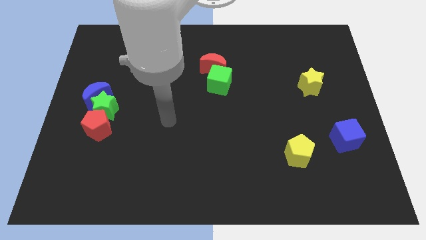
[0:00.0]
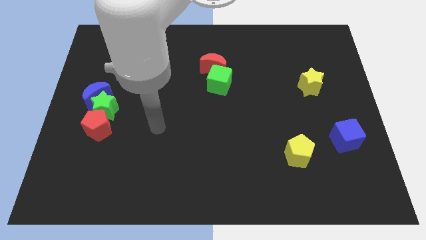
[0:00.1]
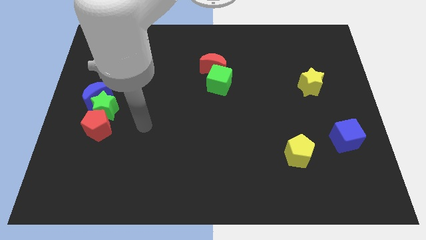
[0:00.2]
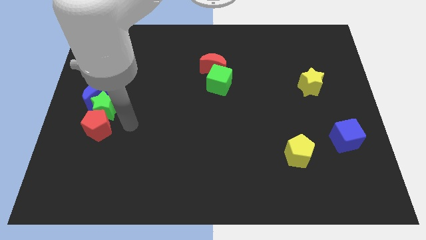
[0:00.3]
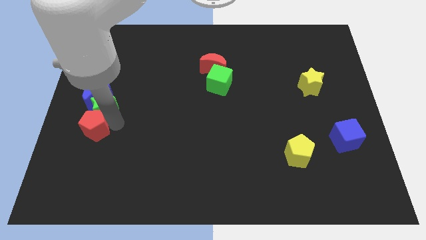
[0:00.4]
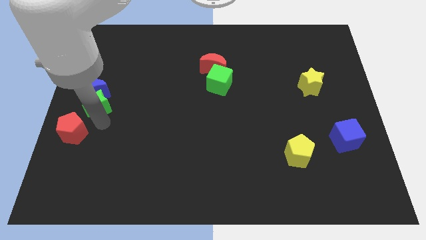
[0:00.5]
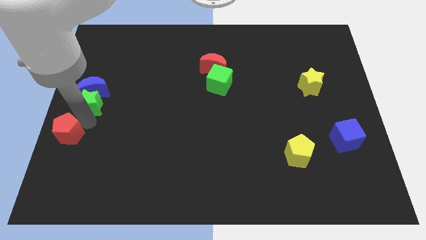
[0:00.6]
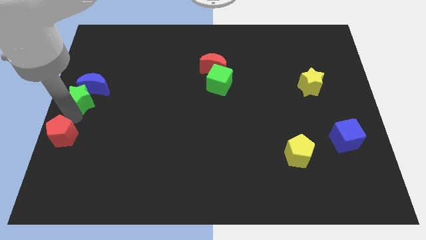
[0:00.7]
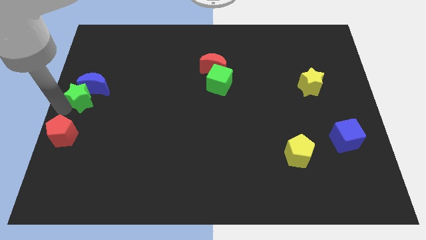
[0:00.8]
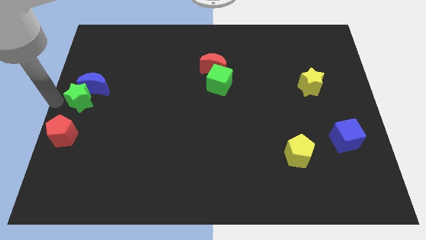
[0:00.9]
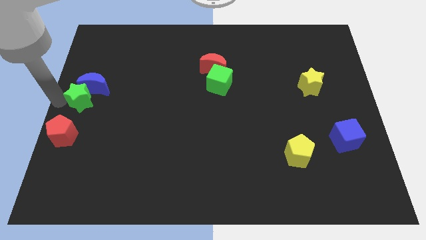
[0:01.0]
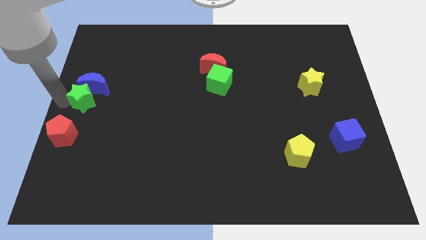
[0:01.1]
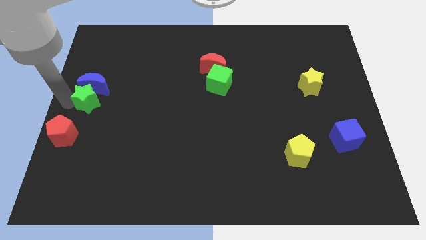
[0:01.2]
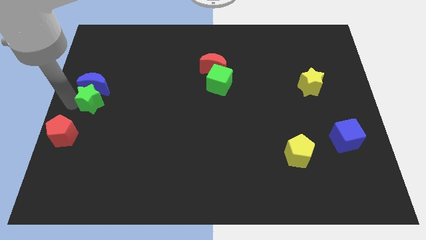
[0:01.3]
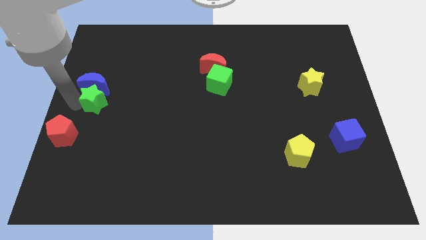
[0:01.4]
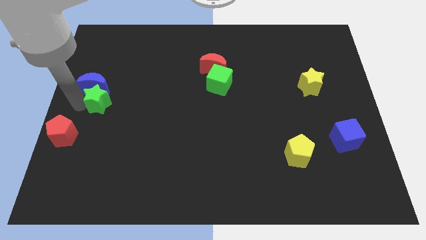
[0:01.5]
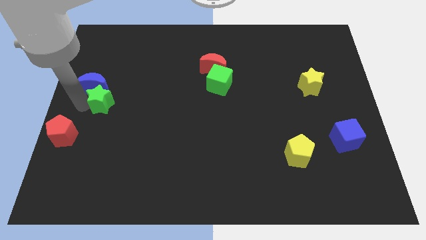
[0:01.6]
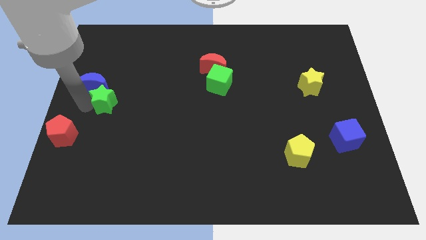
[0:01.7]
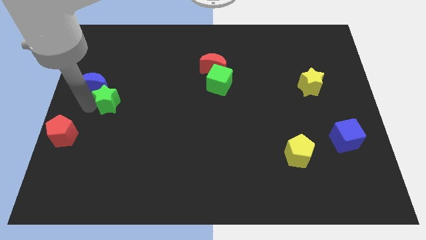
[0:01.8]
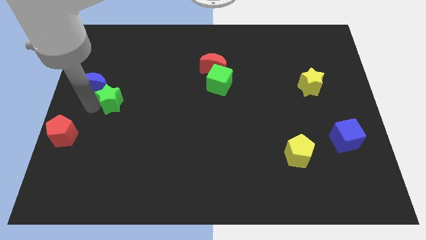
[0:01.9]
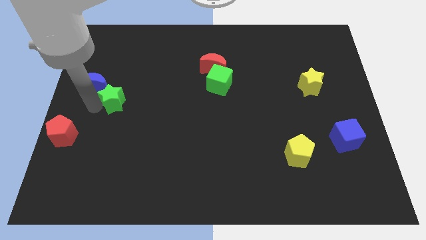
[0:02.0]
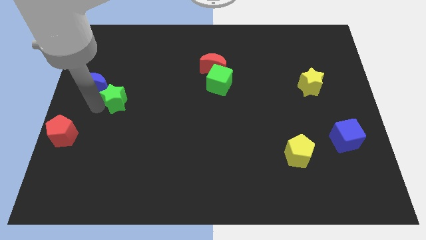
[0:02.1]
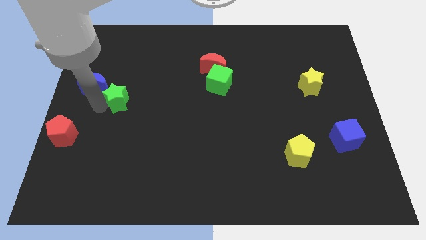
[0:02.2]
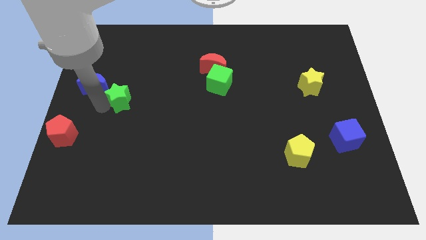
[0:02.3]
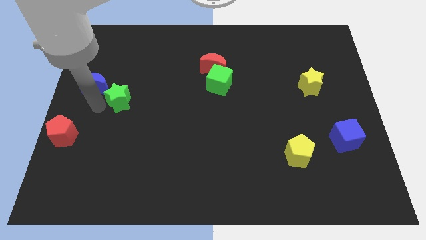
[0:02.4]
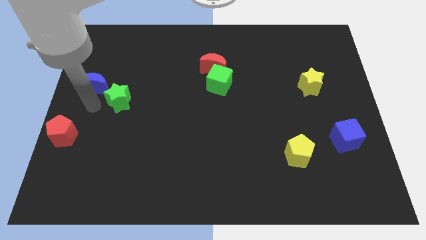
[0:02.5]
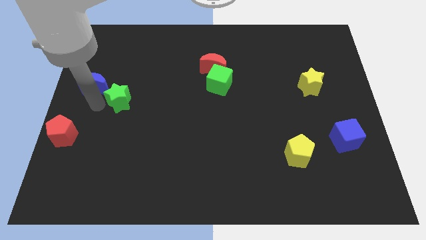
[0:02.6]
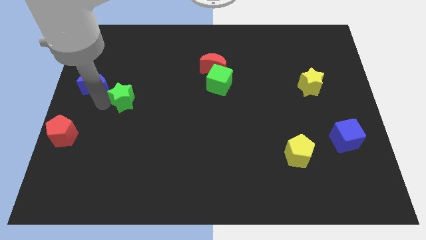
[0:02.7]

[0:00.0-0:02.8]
separate the green star from the blue moon and red pentagon

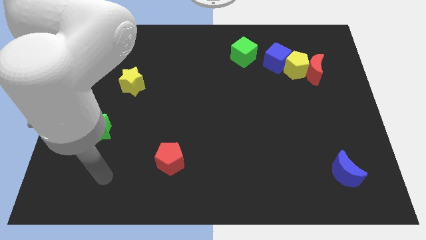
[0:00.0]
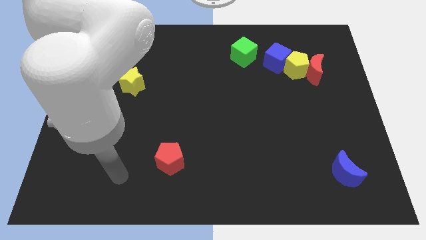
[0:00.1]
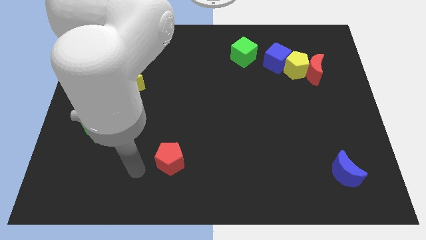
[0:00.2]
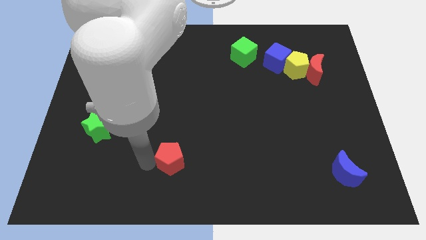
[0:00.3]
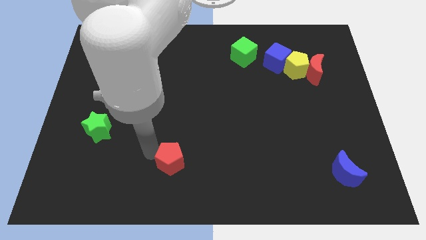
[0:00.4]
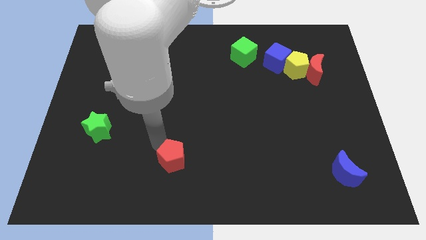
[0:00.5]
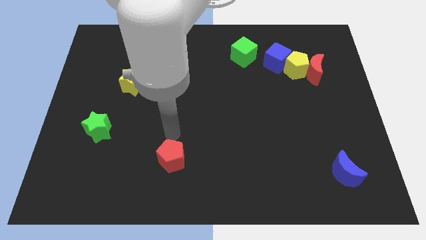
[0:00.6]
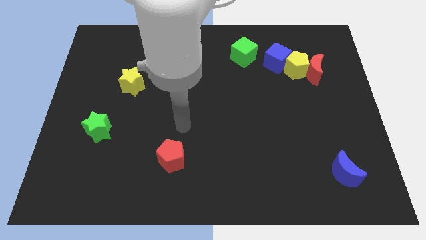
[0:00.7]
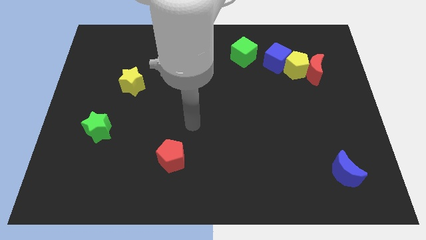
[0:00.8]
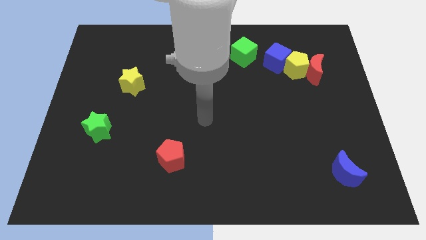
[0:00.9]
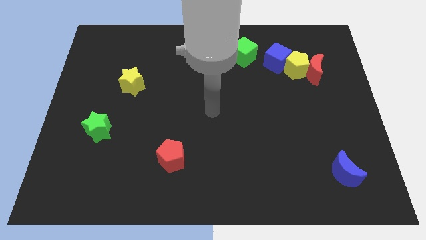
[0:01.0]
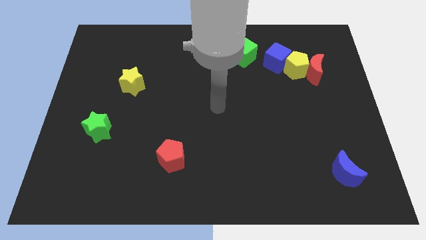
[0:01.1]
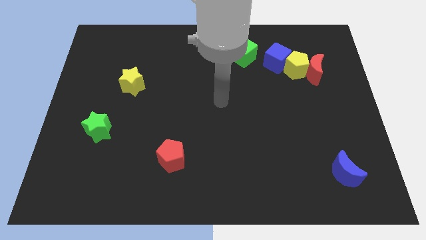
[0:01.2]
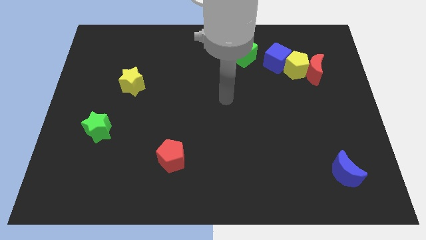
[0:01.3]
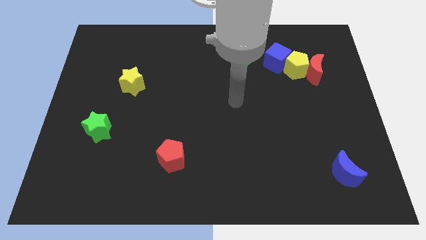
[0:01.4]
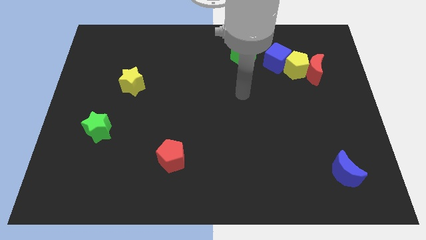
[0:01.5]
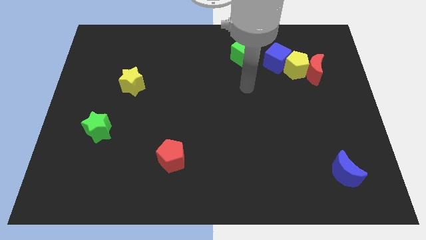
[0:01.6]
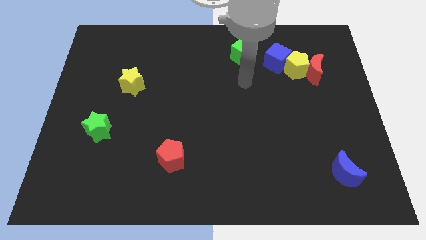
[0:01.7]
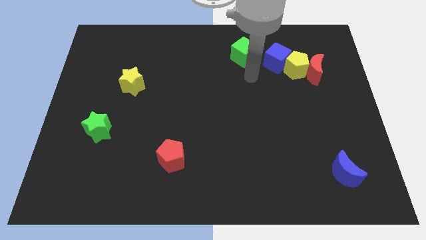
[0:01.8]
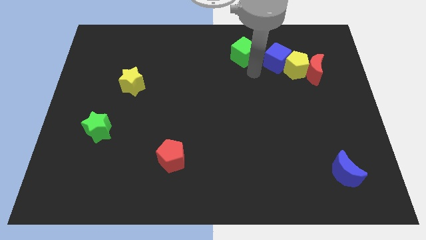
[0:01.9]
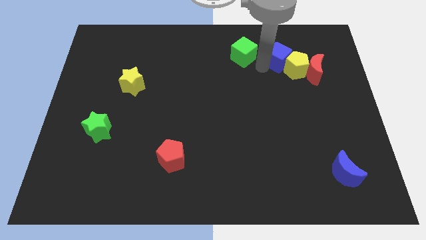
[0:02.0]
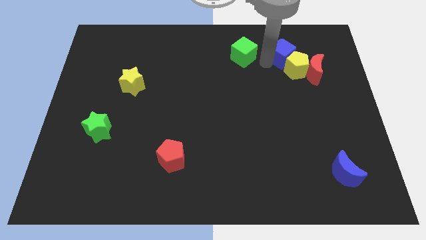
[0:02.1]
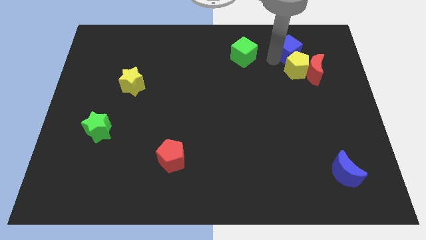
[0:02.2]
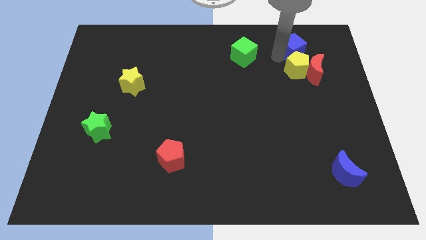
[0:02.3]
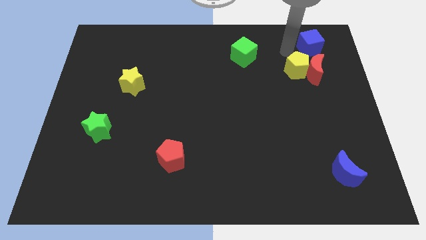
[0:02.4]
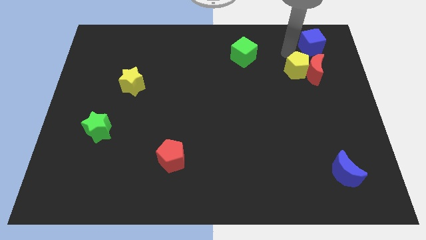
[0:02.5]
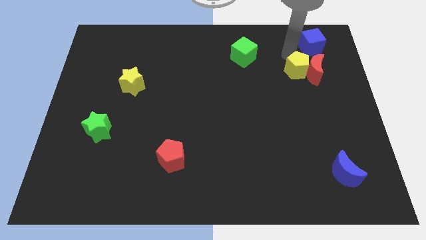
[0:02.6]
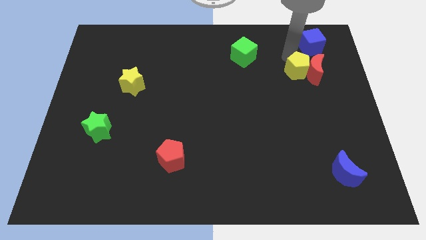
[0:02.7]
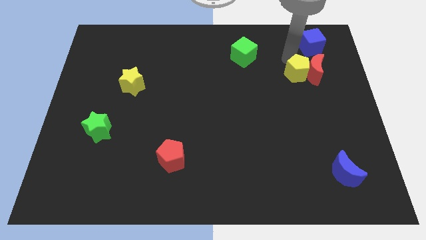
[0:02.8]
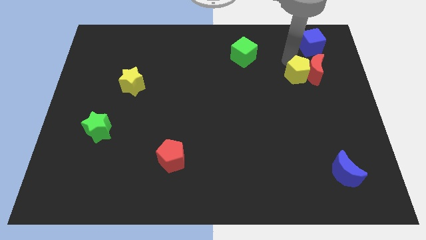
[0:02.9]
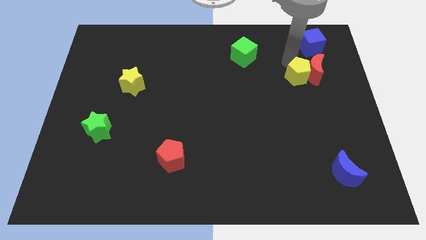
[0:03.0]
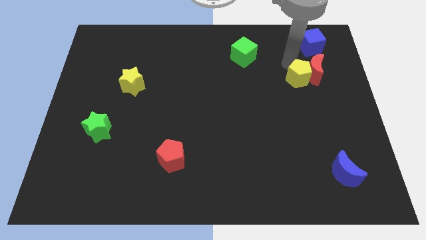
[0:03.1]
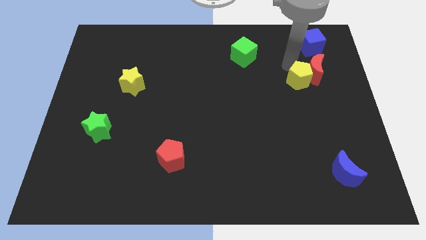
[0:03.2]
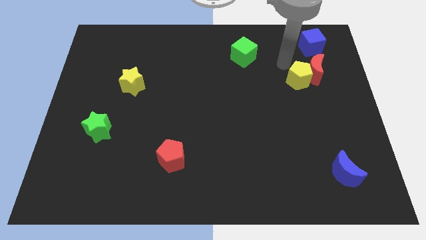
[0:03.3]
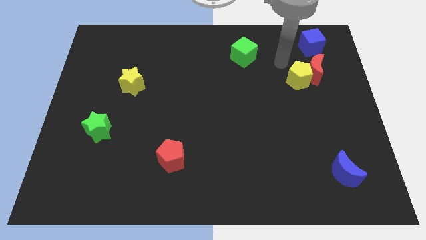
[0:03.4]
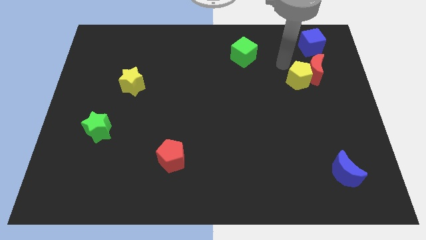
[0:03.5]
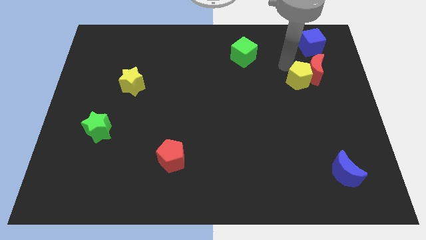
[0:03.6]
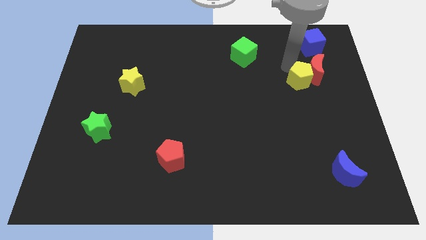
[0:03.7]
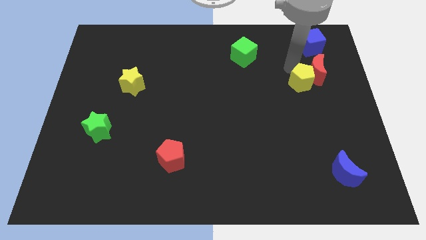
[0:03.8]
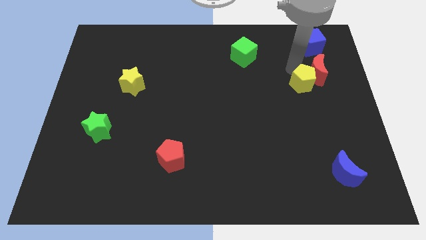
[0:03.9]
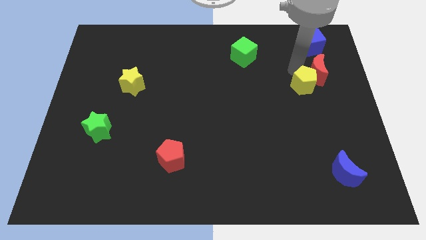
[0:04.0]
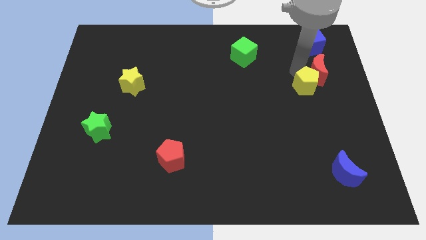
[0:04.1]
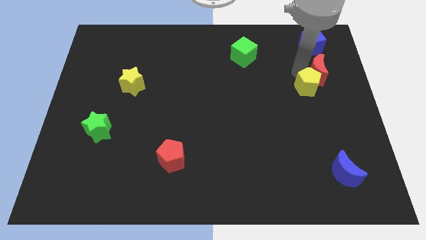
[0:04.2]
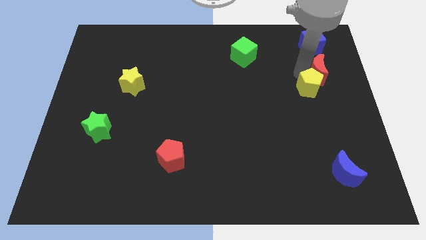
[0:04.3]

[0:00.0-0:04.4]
move the yellow pentagon away from the red moon and blue cube

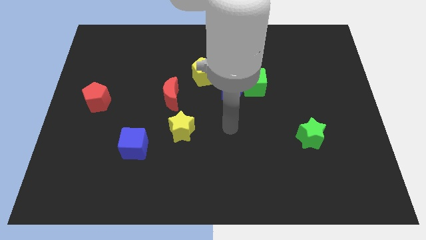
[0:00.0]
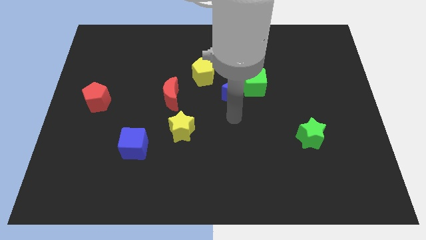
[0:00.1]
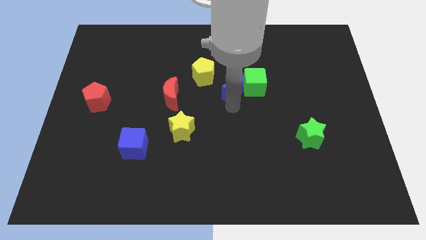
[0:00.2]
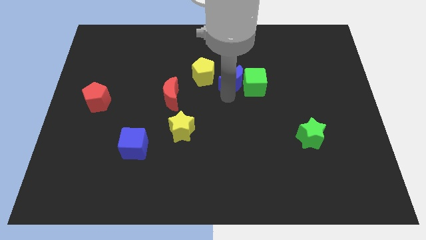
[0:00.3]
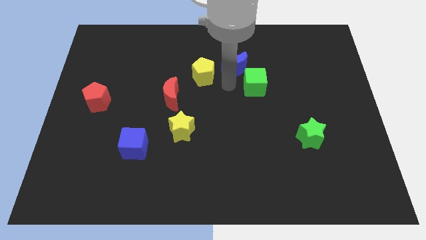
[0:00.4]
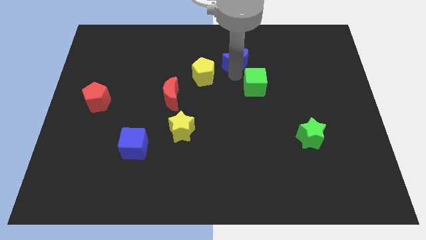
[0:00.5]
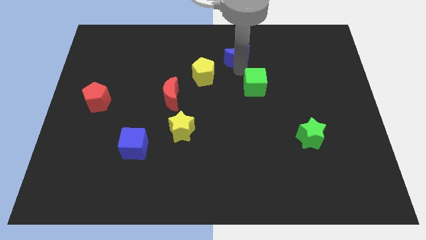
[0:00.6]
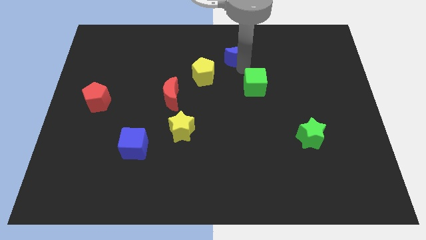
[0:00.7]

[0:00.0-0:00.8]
pull the green cube apart from the blue moon

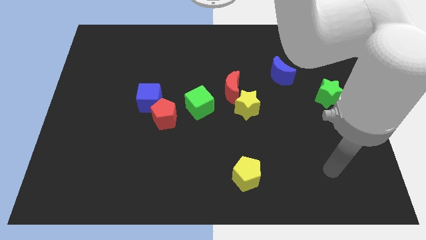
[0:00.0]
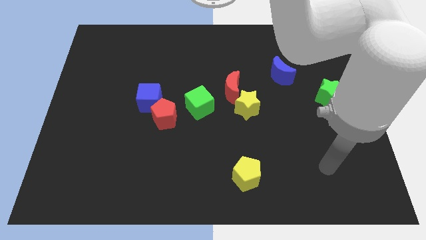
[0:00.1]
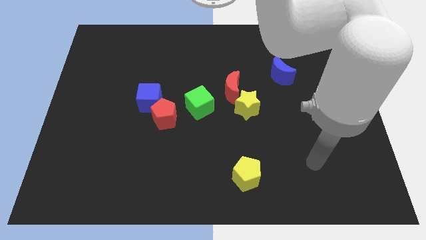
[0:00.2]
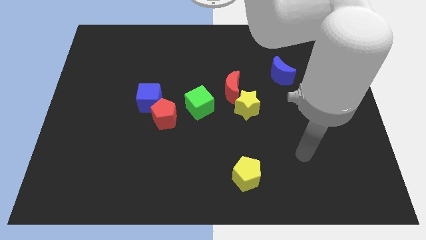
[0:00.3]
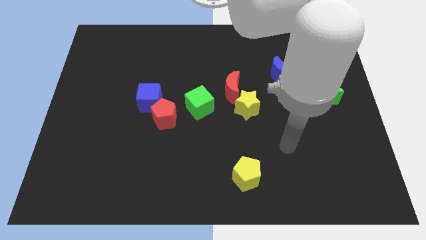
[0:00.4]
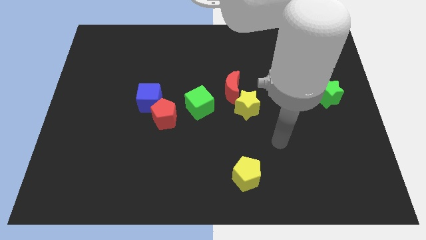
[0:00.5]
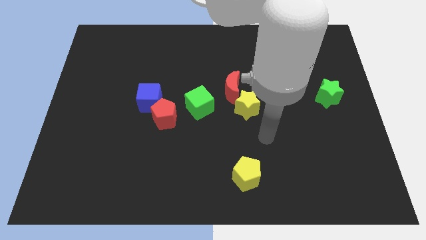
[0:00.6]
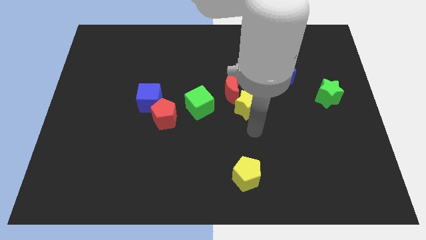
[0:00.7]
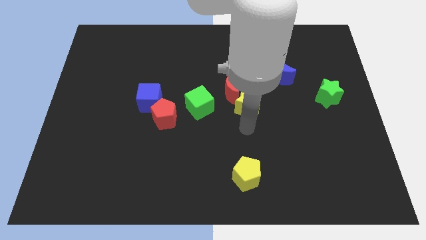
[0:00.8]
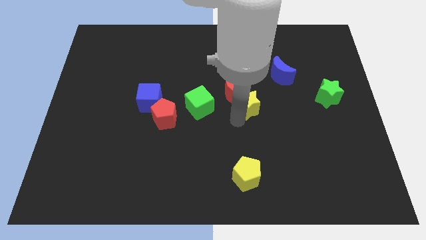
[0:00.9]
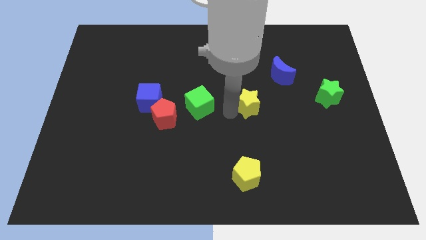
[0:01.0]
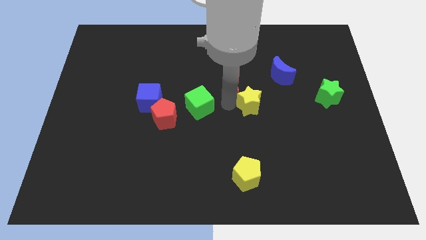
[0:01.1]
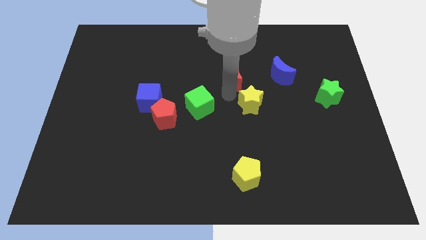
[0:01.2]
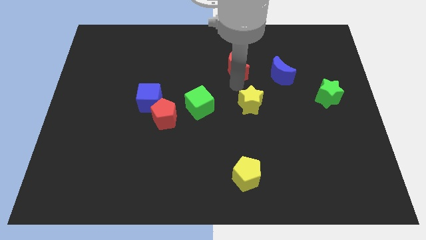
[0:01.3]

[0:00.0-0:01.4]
move the yellow star away from the red moon
